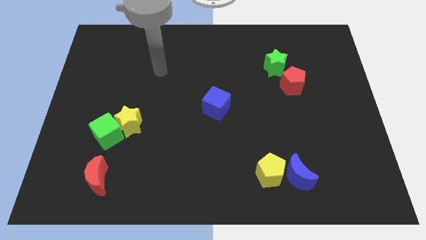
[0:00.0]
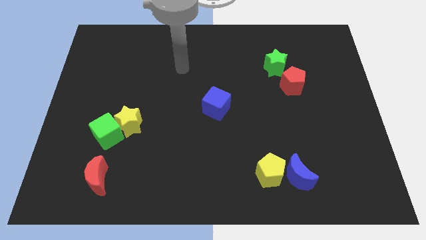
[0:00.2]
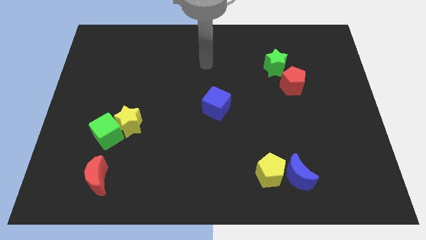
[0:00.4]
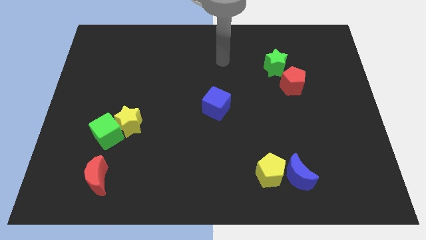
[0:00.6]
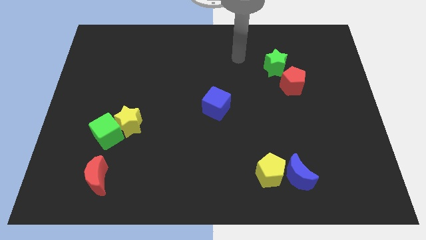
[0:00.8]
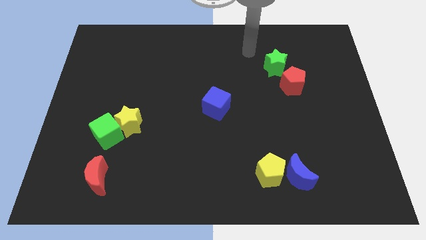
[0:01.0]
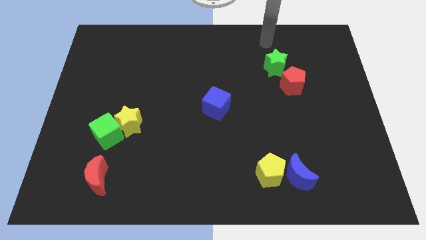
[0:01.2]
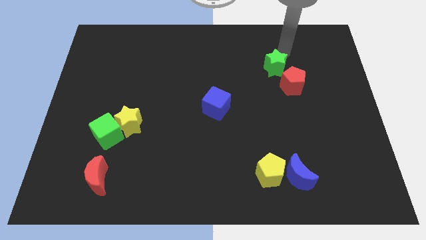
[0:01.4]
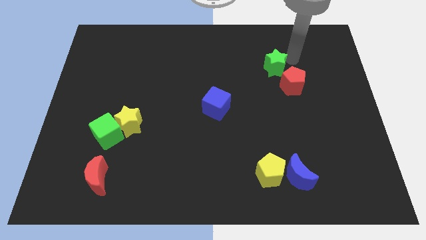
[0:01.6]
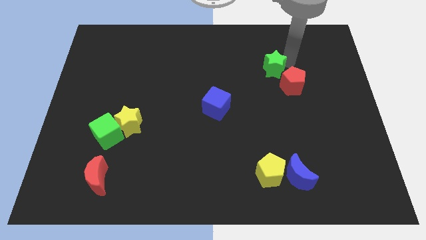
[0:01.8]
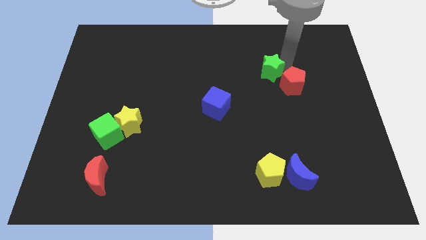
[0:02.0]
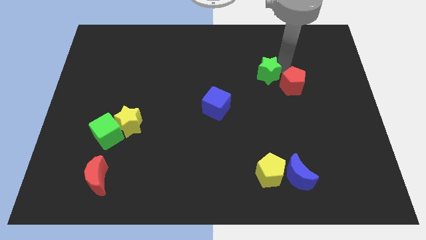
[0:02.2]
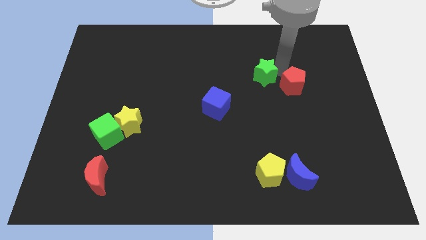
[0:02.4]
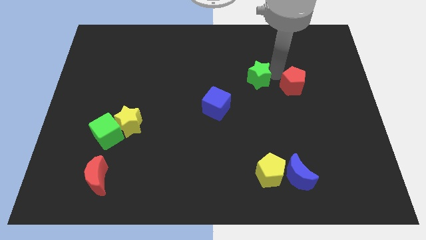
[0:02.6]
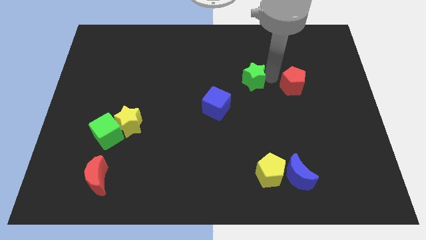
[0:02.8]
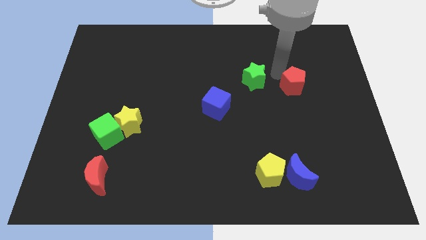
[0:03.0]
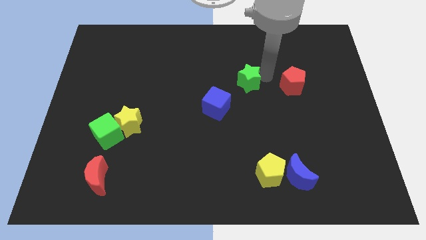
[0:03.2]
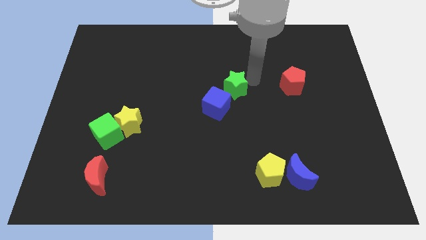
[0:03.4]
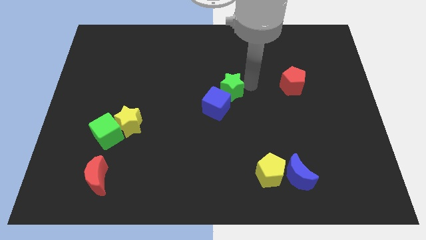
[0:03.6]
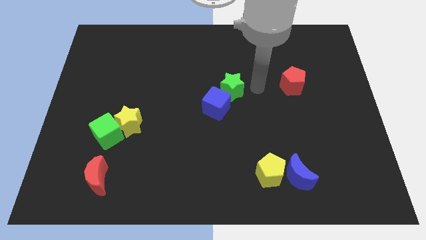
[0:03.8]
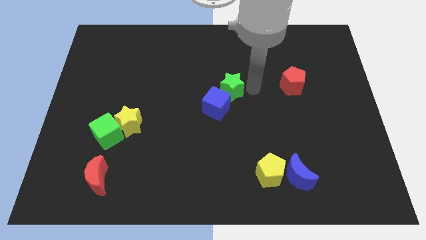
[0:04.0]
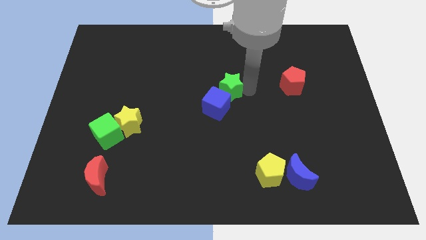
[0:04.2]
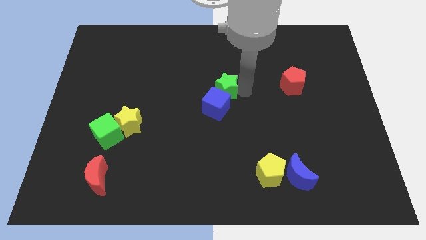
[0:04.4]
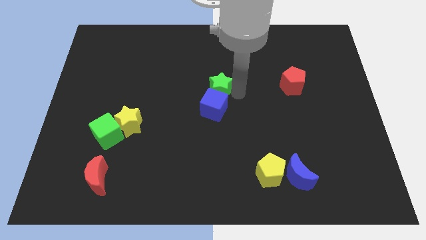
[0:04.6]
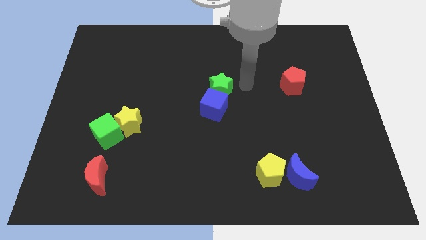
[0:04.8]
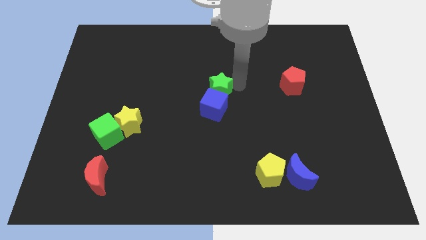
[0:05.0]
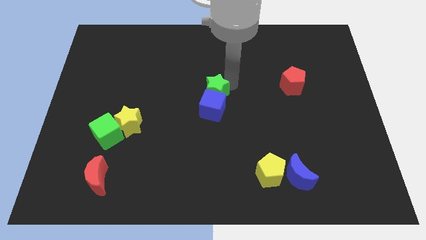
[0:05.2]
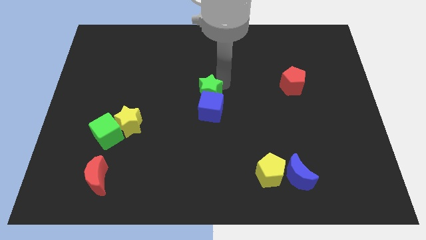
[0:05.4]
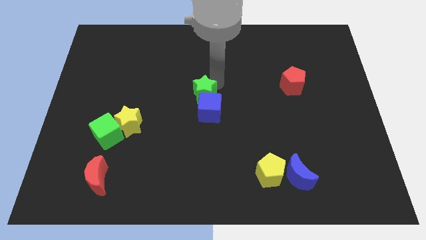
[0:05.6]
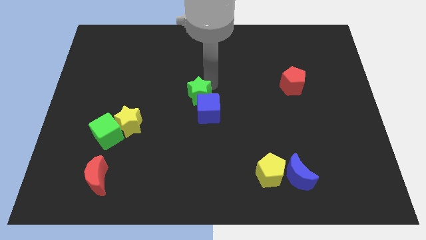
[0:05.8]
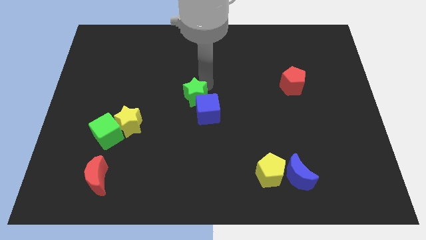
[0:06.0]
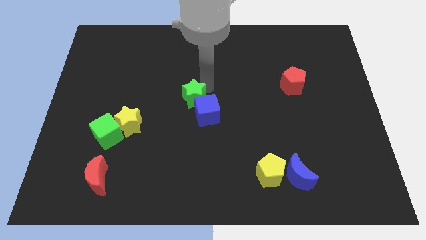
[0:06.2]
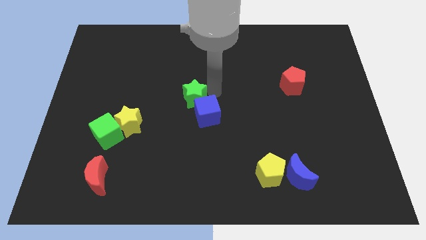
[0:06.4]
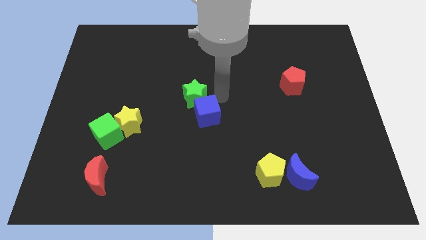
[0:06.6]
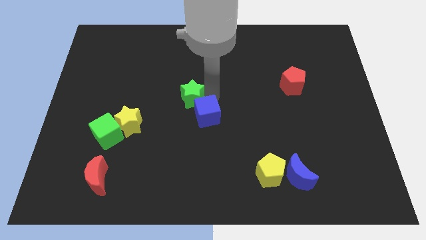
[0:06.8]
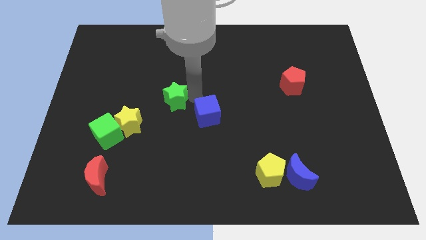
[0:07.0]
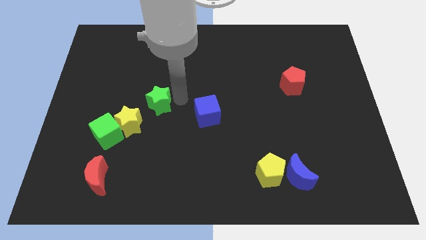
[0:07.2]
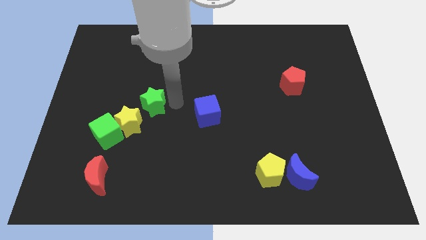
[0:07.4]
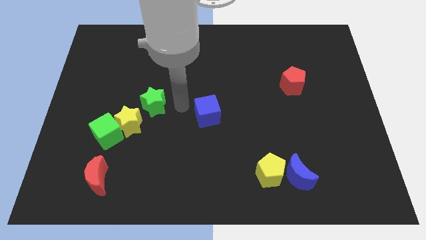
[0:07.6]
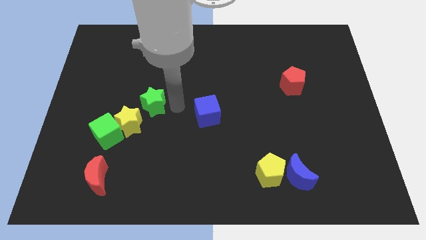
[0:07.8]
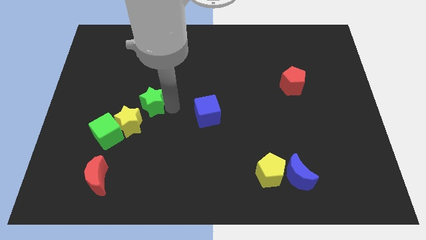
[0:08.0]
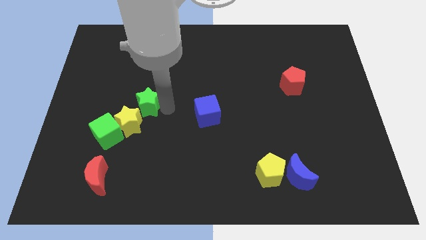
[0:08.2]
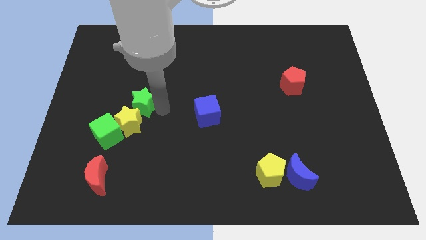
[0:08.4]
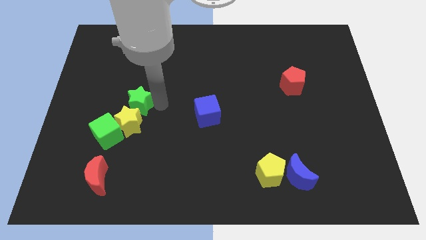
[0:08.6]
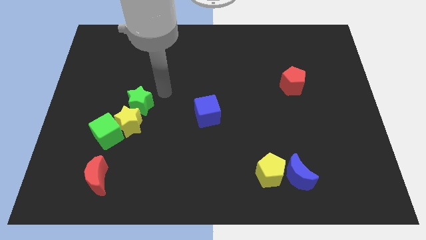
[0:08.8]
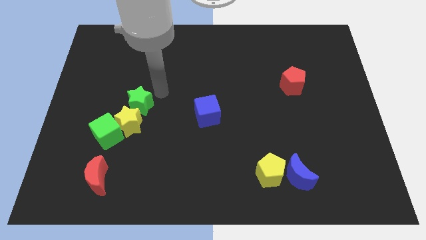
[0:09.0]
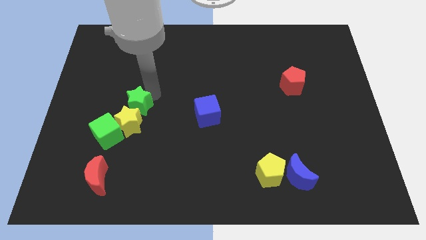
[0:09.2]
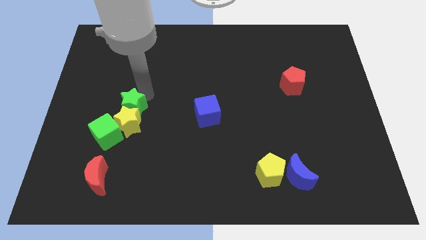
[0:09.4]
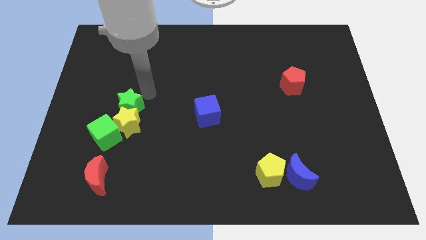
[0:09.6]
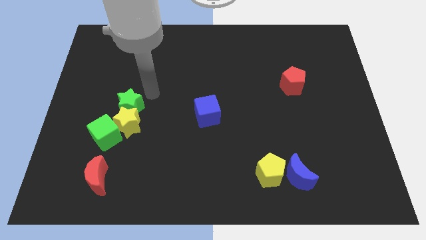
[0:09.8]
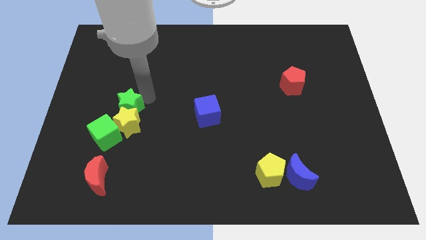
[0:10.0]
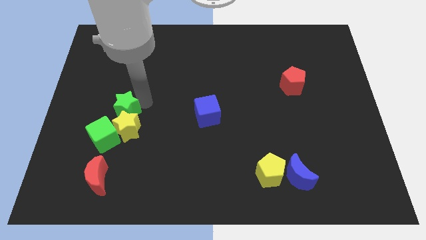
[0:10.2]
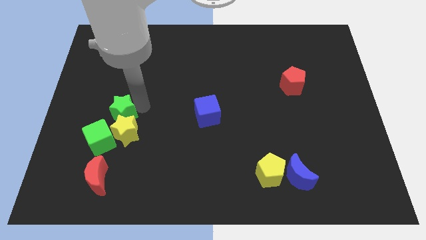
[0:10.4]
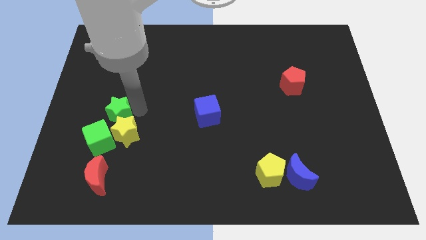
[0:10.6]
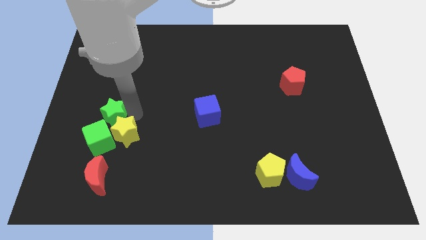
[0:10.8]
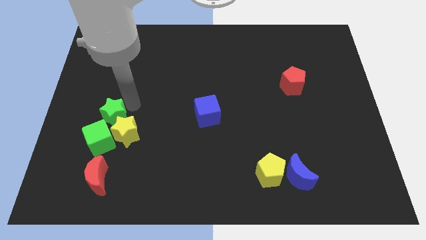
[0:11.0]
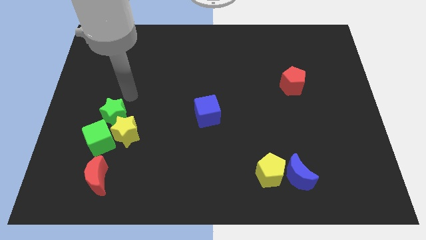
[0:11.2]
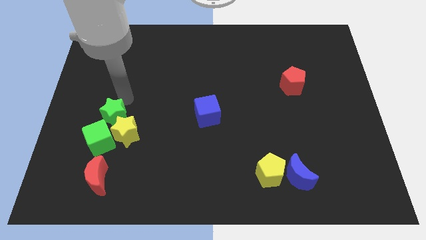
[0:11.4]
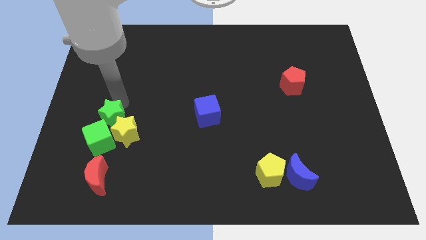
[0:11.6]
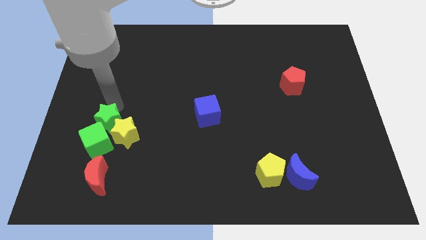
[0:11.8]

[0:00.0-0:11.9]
put the green star to the green cube

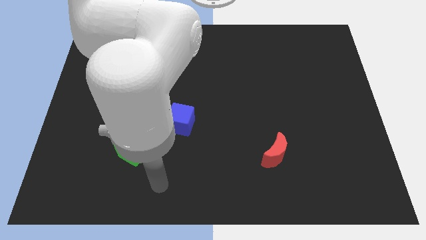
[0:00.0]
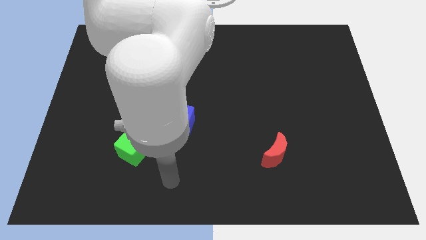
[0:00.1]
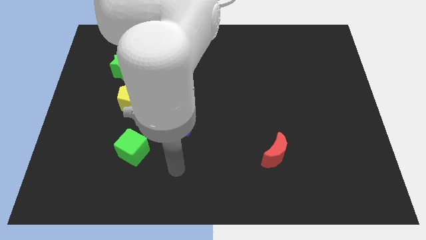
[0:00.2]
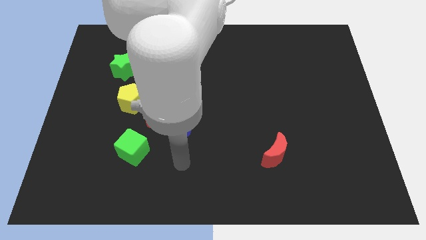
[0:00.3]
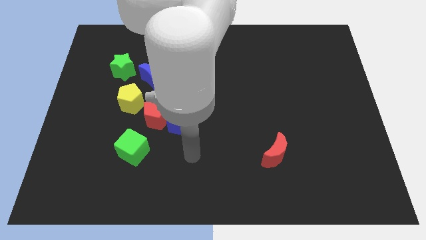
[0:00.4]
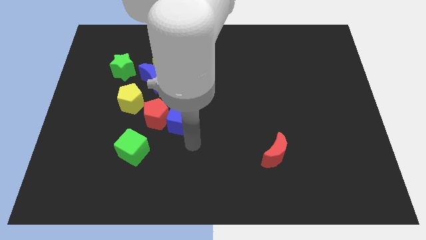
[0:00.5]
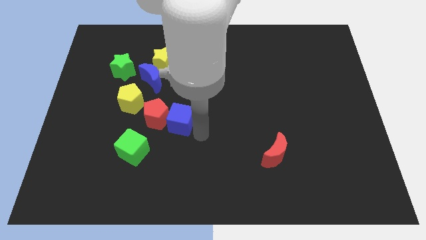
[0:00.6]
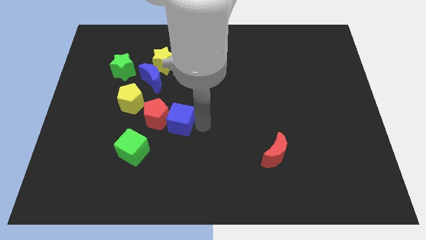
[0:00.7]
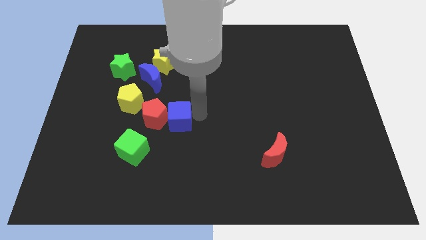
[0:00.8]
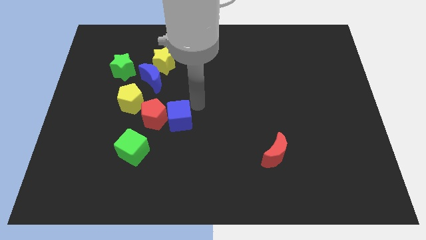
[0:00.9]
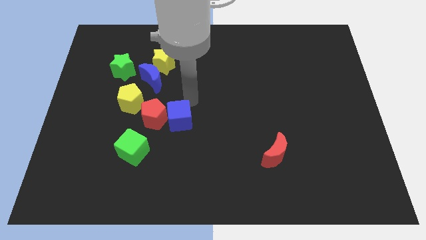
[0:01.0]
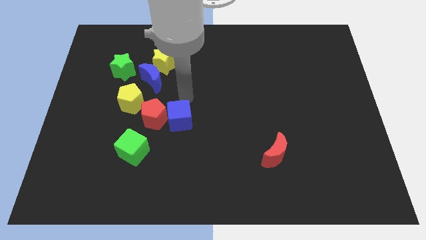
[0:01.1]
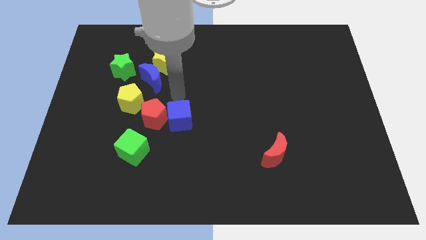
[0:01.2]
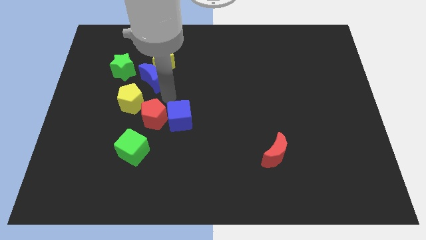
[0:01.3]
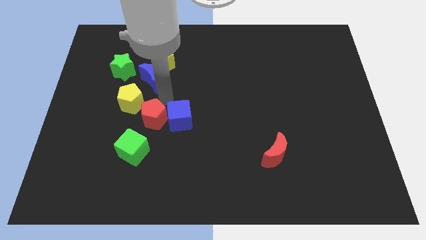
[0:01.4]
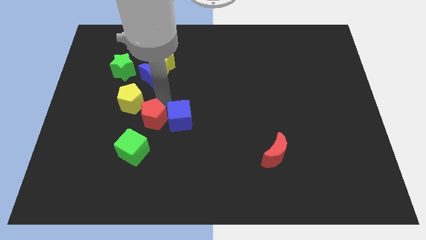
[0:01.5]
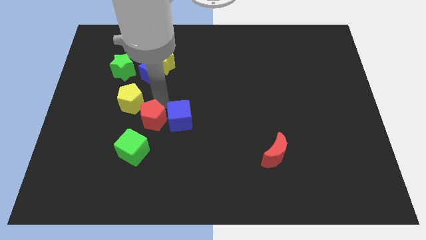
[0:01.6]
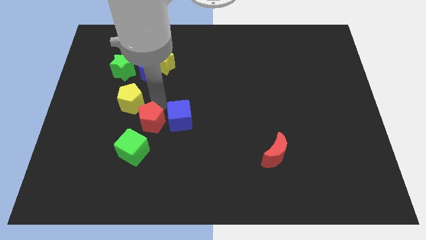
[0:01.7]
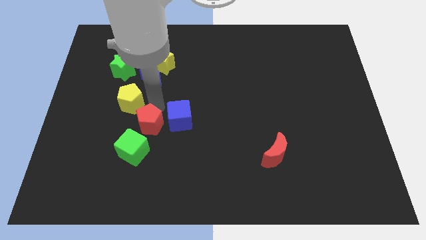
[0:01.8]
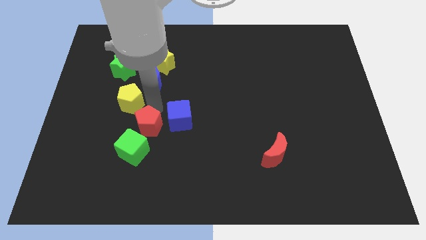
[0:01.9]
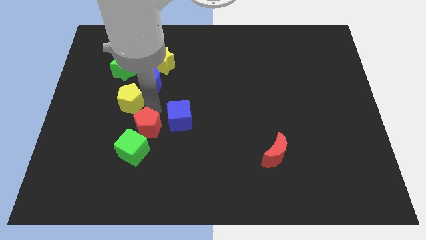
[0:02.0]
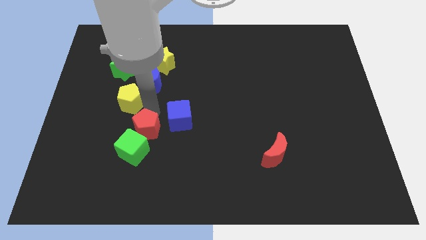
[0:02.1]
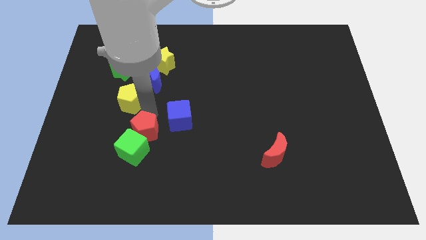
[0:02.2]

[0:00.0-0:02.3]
slide the red pentagon close to the green cube
